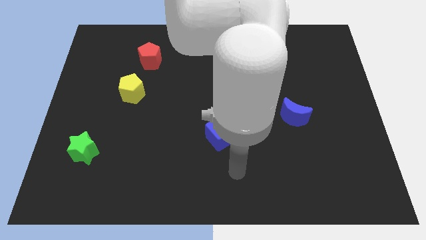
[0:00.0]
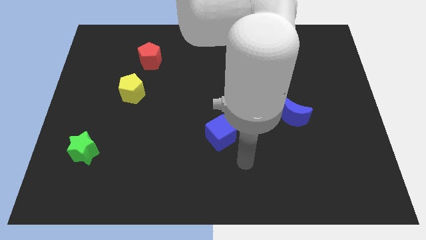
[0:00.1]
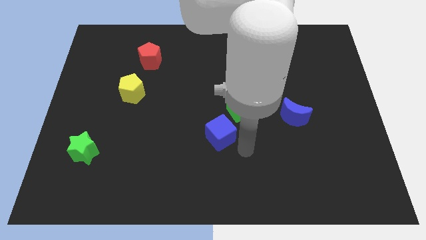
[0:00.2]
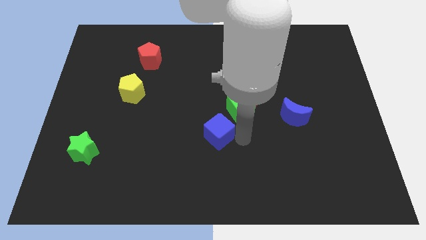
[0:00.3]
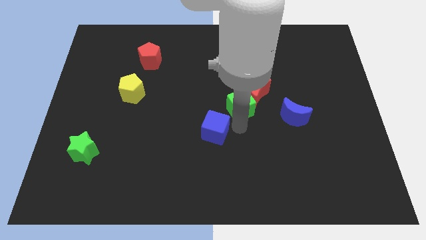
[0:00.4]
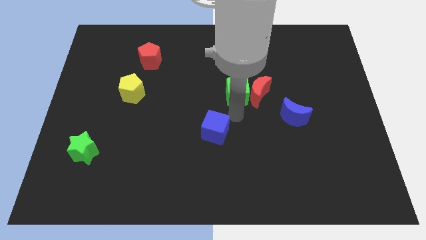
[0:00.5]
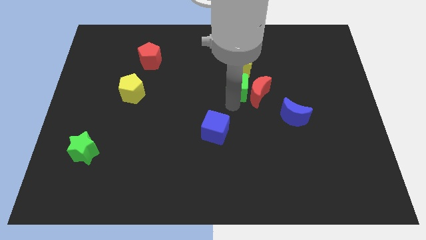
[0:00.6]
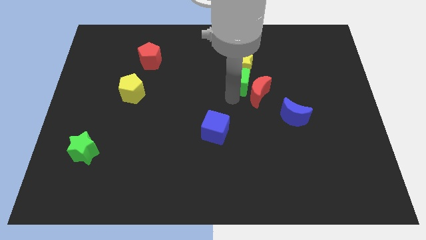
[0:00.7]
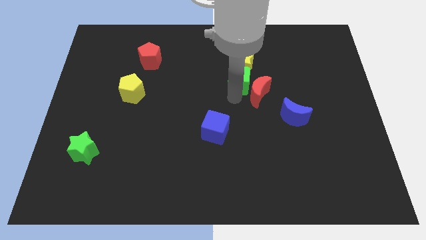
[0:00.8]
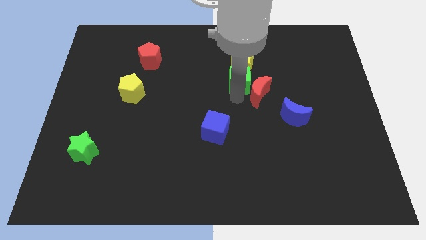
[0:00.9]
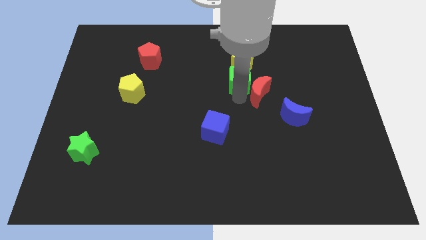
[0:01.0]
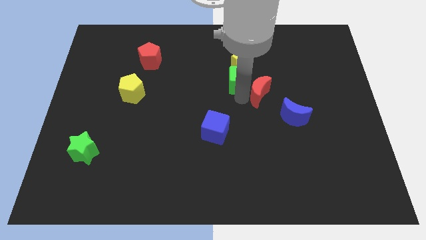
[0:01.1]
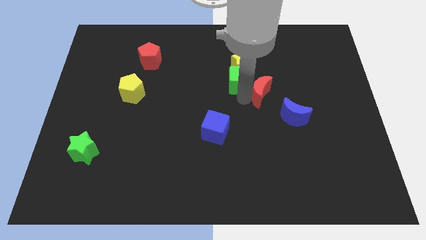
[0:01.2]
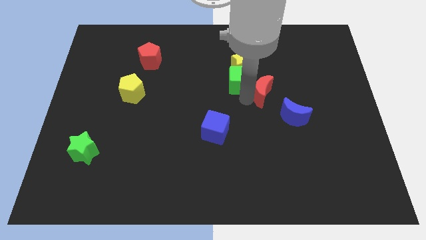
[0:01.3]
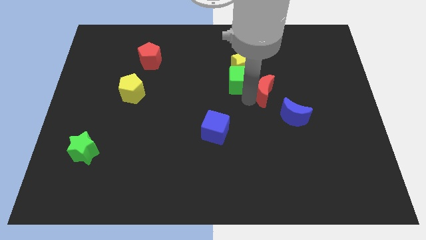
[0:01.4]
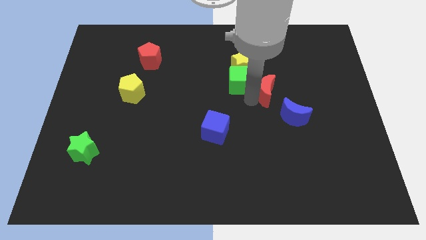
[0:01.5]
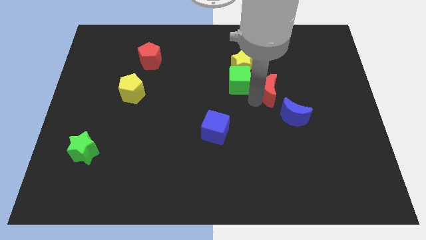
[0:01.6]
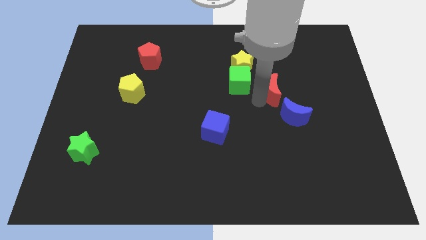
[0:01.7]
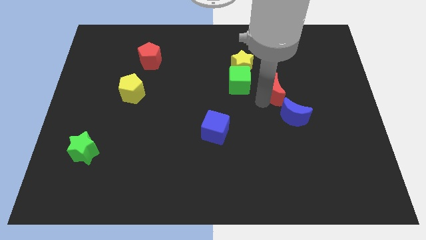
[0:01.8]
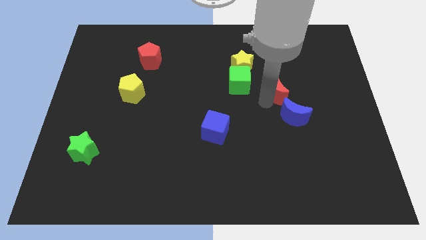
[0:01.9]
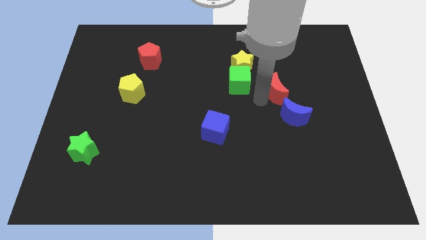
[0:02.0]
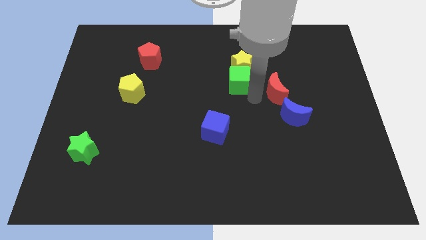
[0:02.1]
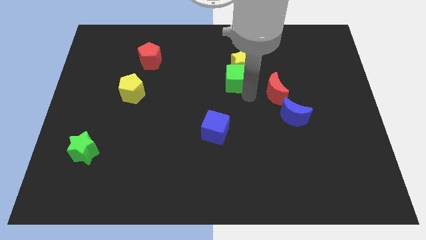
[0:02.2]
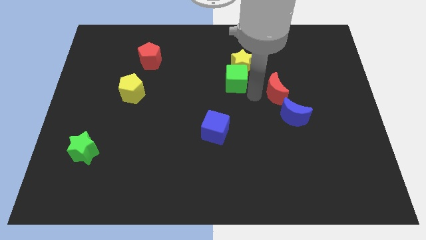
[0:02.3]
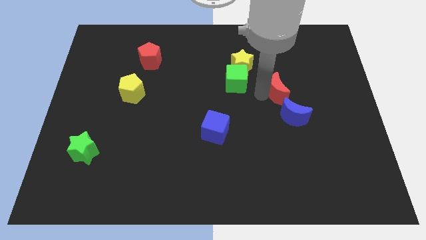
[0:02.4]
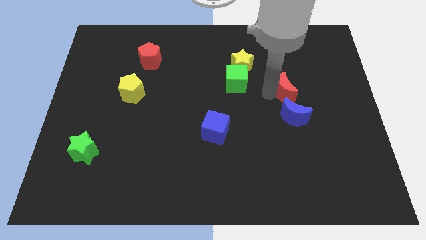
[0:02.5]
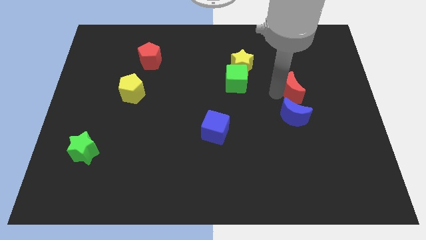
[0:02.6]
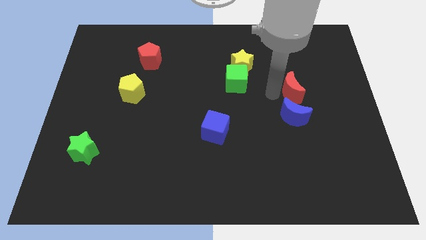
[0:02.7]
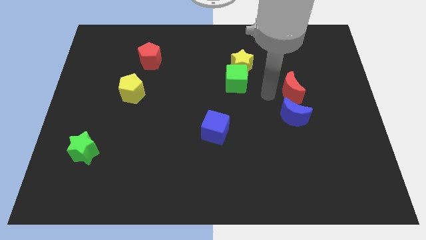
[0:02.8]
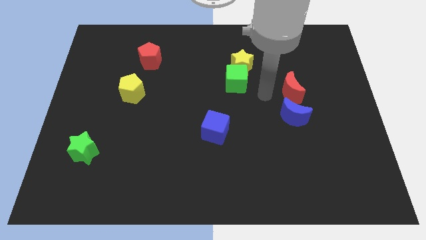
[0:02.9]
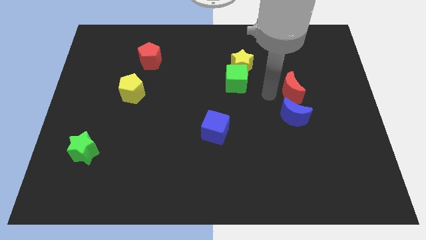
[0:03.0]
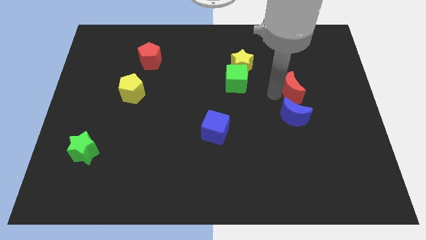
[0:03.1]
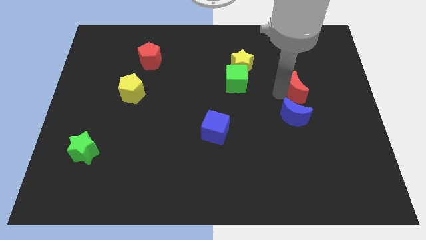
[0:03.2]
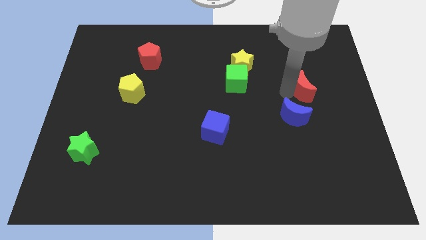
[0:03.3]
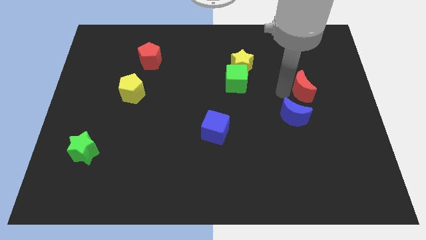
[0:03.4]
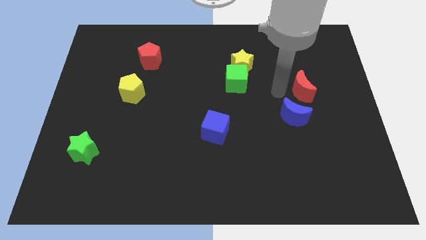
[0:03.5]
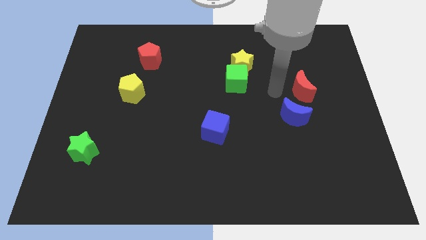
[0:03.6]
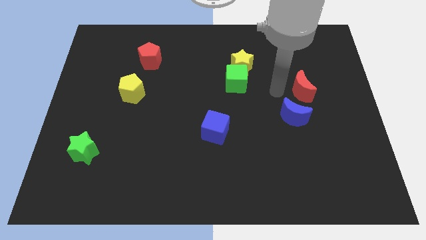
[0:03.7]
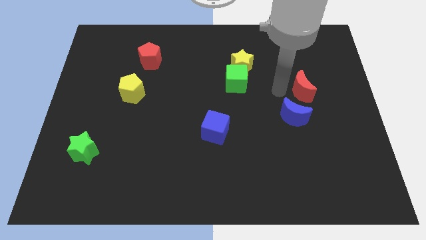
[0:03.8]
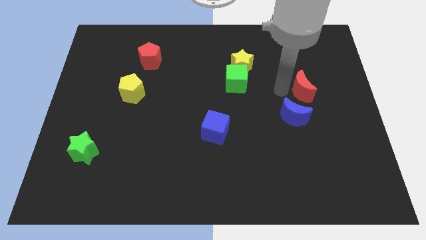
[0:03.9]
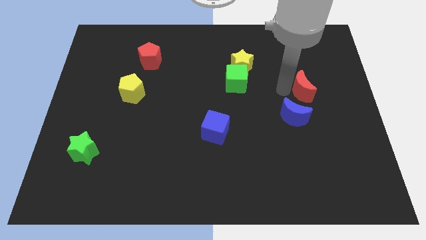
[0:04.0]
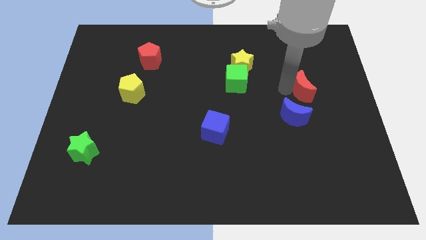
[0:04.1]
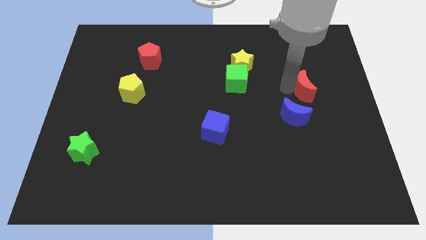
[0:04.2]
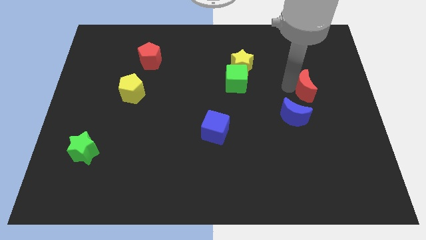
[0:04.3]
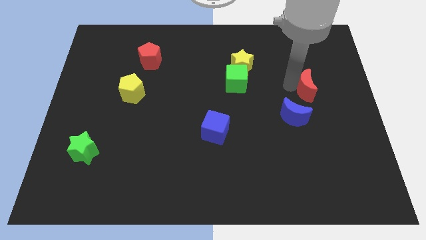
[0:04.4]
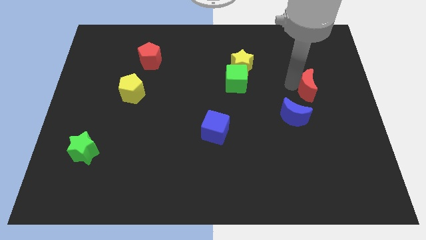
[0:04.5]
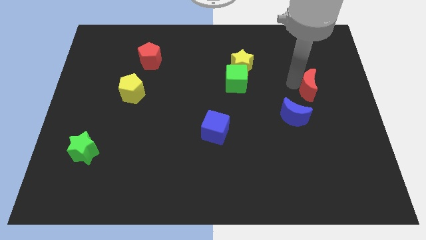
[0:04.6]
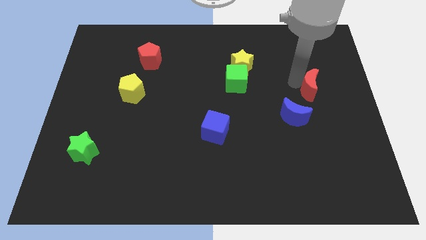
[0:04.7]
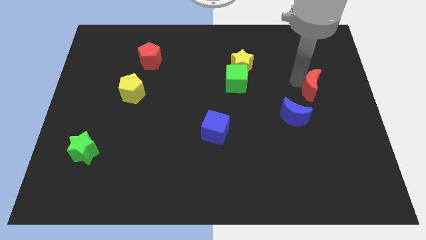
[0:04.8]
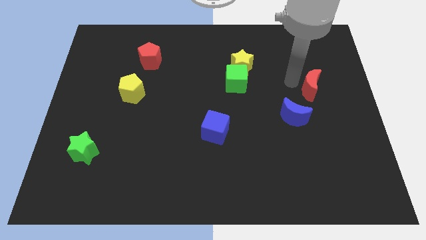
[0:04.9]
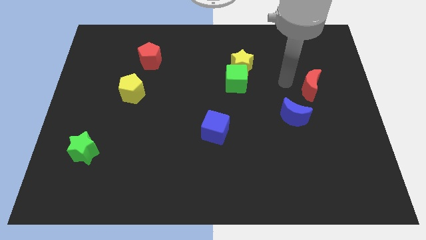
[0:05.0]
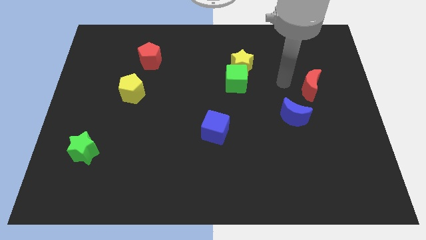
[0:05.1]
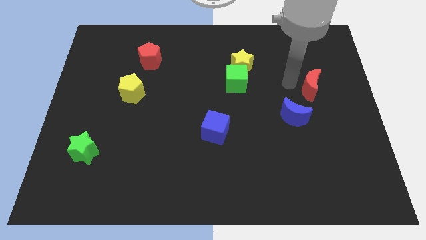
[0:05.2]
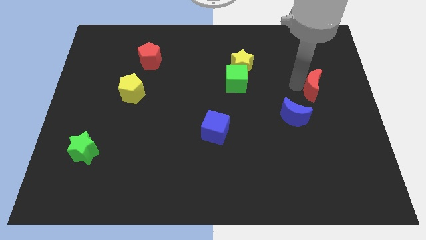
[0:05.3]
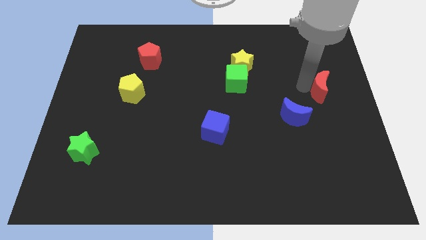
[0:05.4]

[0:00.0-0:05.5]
move the red moon to the right side
